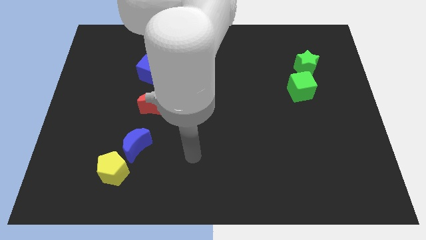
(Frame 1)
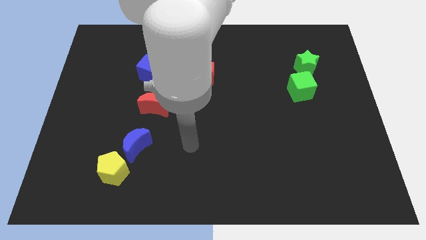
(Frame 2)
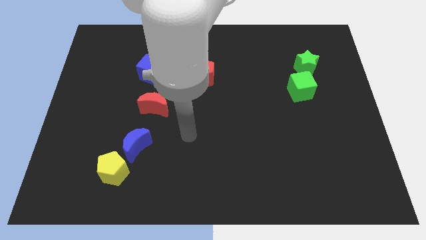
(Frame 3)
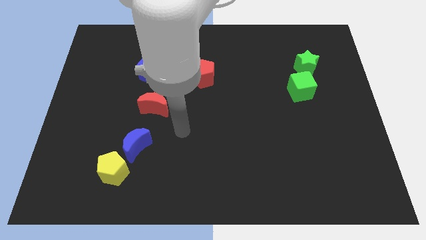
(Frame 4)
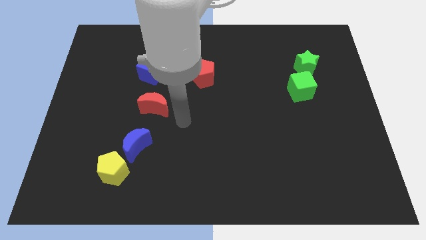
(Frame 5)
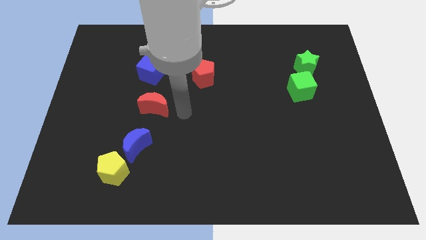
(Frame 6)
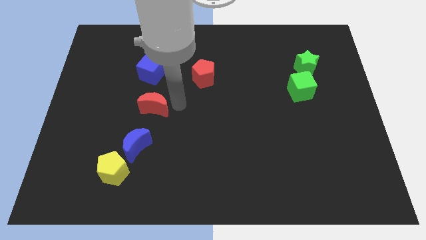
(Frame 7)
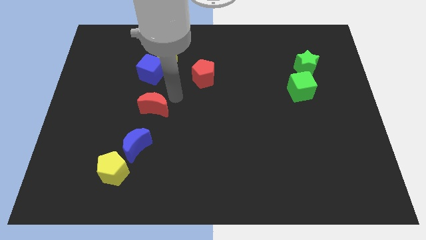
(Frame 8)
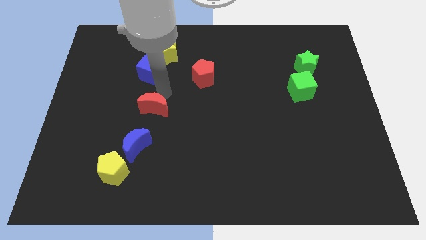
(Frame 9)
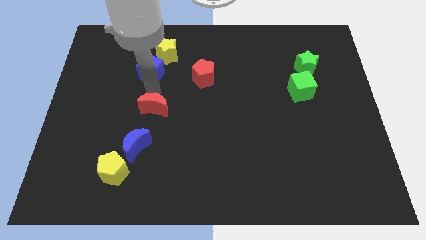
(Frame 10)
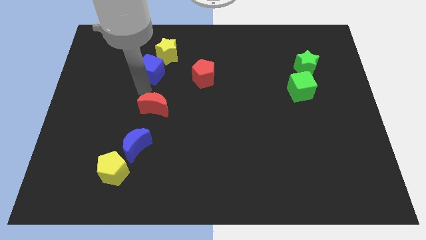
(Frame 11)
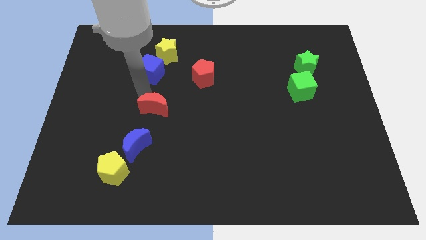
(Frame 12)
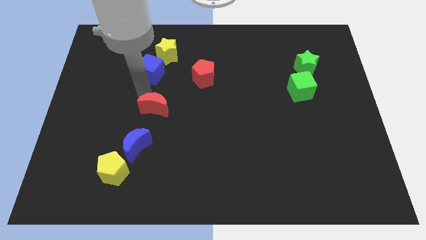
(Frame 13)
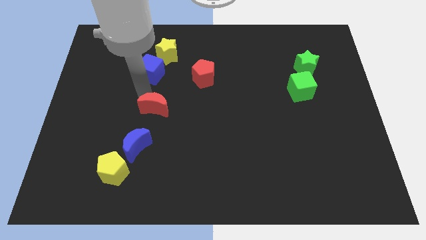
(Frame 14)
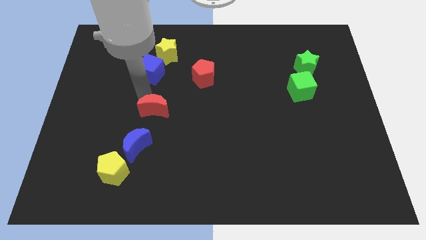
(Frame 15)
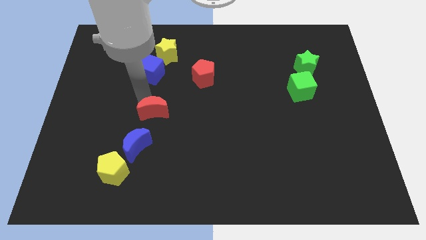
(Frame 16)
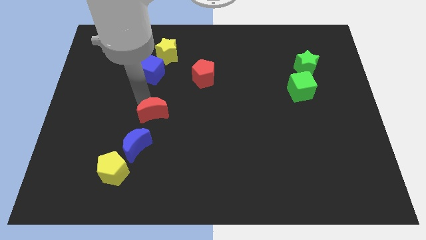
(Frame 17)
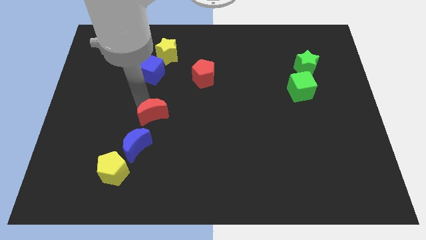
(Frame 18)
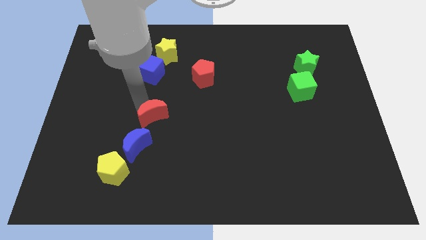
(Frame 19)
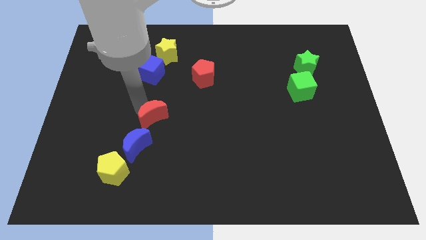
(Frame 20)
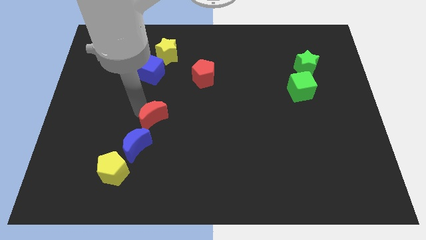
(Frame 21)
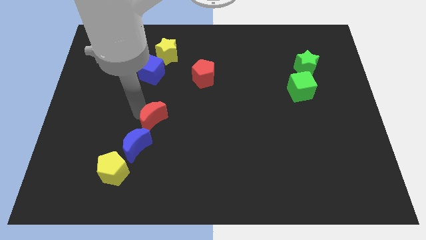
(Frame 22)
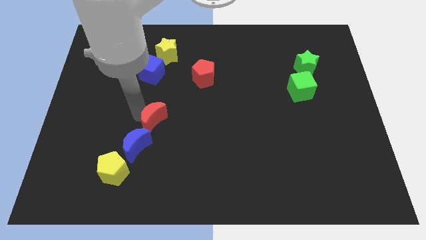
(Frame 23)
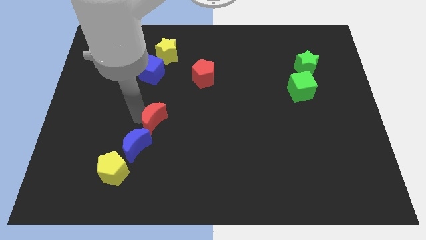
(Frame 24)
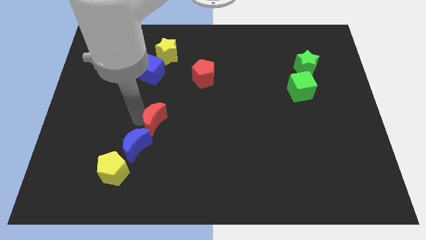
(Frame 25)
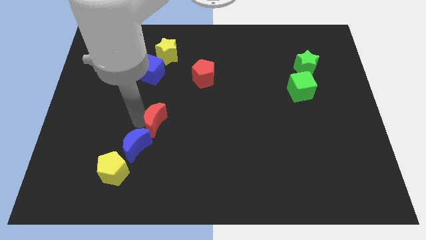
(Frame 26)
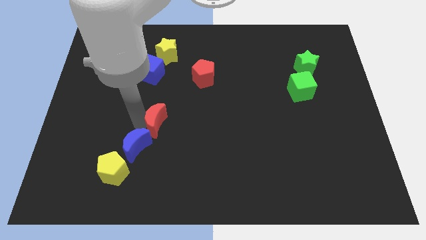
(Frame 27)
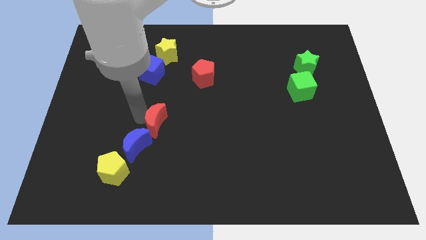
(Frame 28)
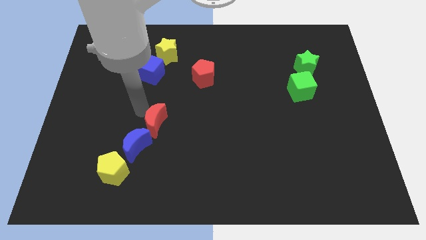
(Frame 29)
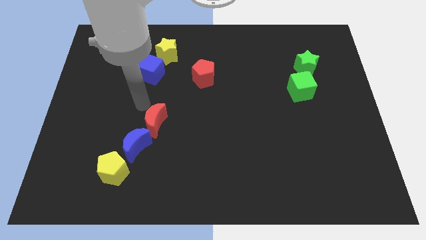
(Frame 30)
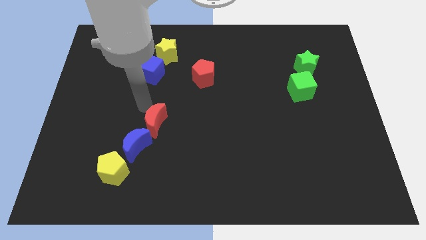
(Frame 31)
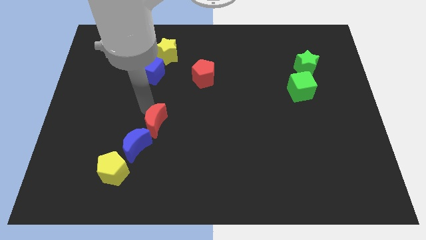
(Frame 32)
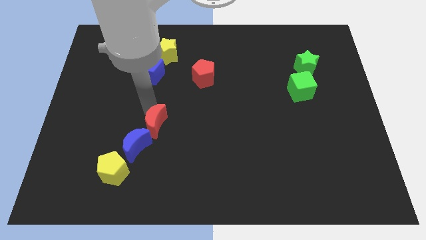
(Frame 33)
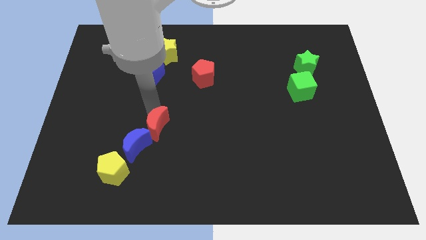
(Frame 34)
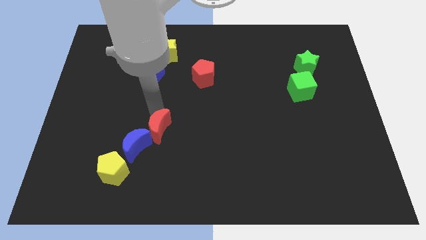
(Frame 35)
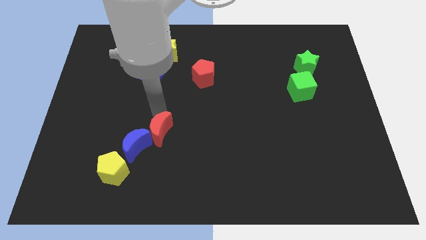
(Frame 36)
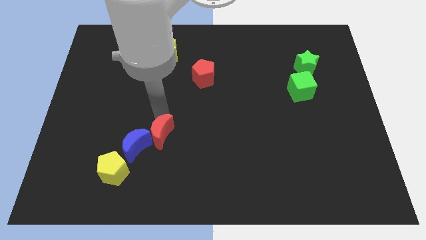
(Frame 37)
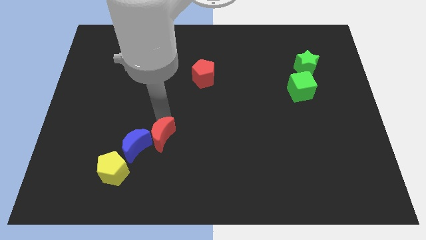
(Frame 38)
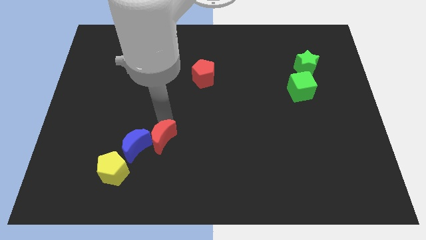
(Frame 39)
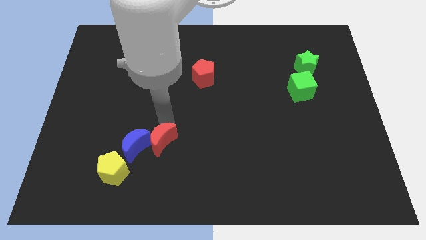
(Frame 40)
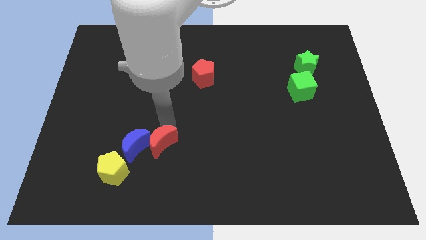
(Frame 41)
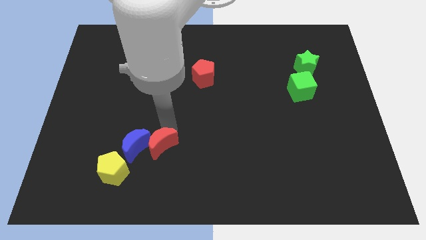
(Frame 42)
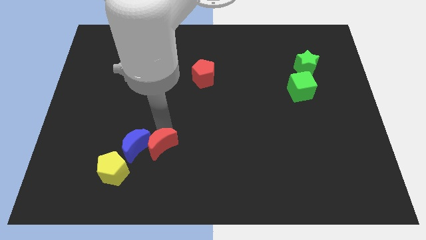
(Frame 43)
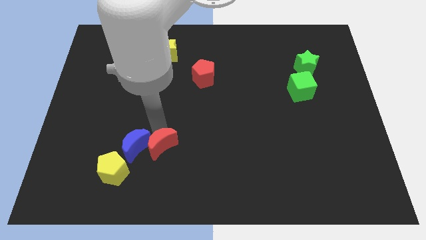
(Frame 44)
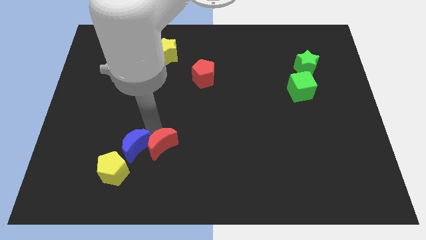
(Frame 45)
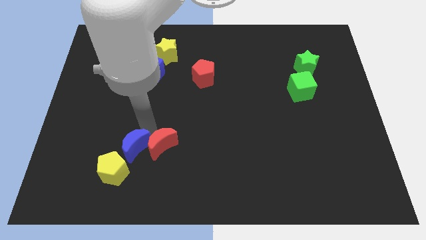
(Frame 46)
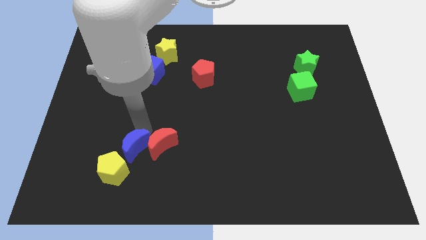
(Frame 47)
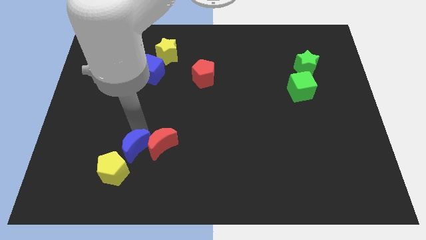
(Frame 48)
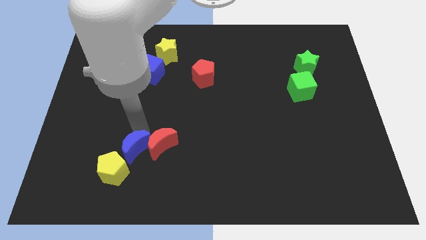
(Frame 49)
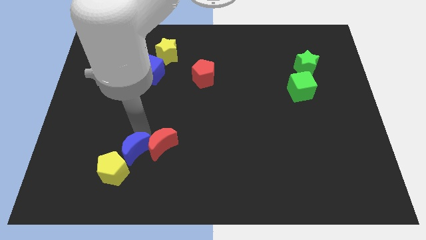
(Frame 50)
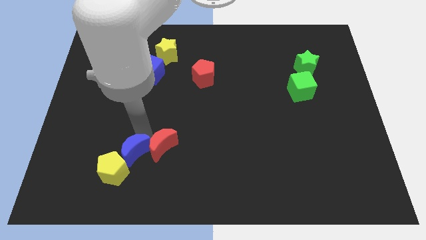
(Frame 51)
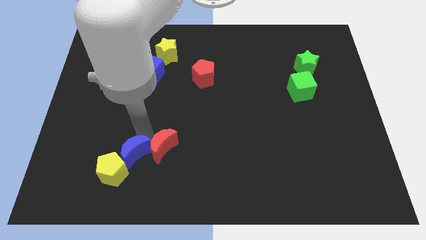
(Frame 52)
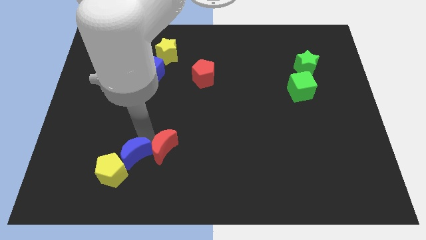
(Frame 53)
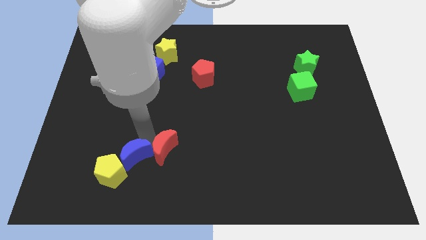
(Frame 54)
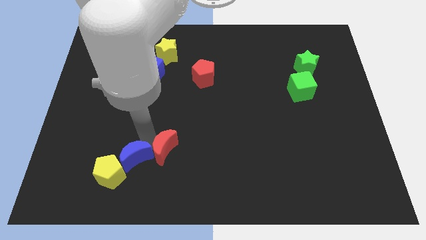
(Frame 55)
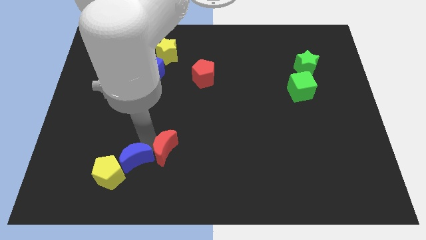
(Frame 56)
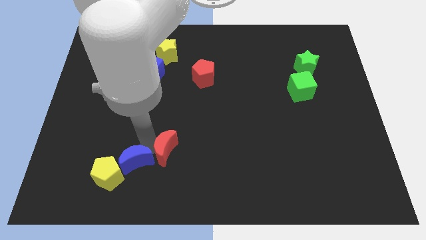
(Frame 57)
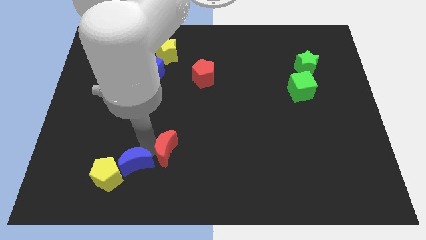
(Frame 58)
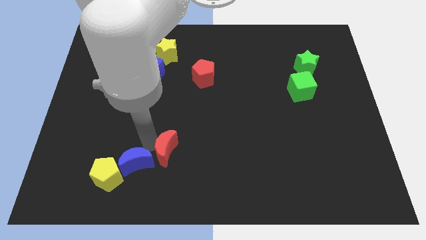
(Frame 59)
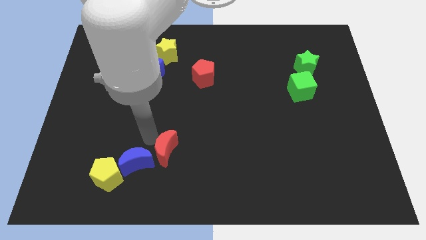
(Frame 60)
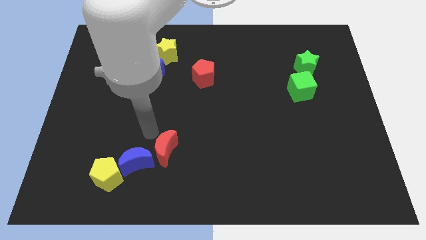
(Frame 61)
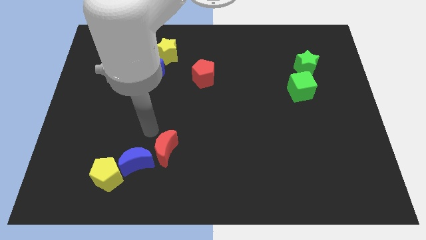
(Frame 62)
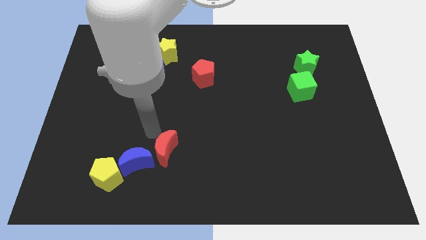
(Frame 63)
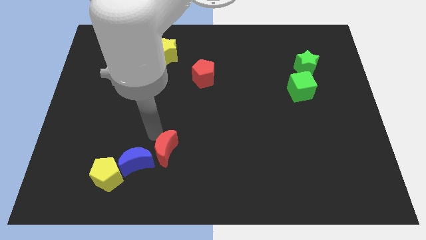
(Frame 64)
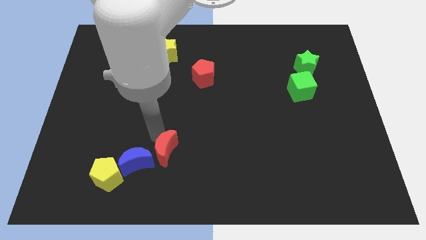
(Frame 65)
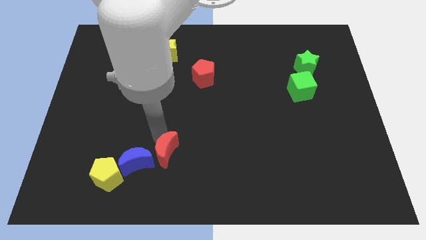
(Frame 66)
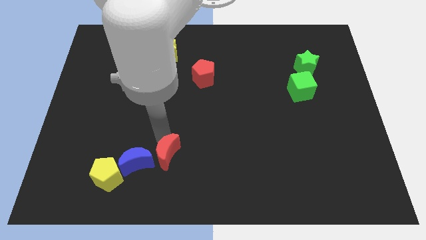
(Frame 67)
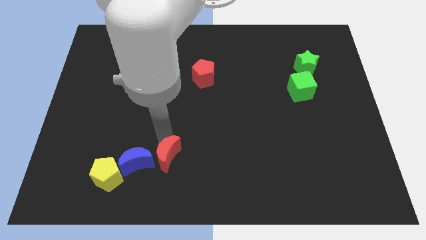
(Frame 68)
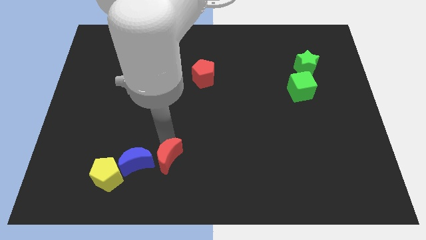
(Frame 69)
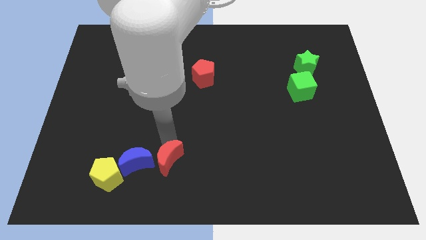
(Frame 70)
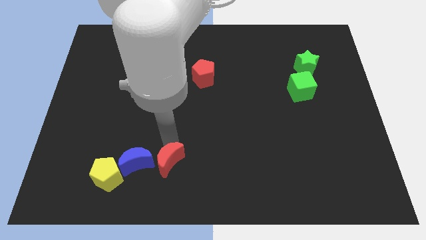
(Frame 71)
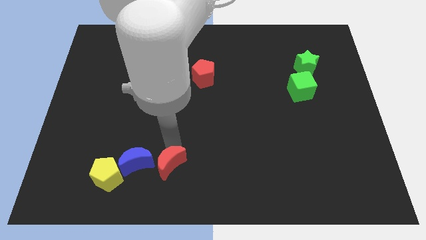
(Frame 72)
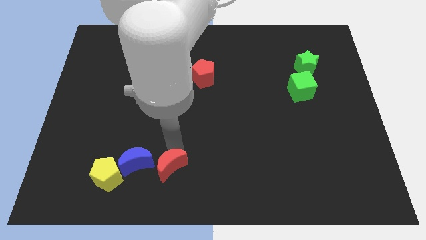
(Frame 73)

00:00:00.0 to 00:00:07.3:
push the red moon to the bottom

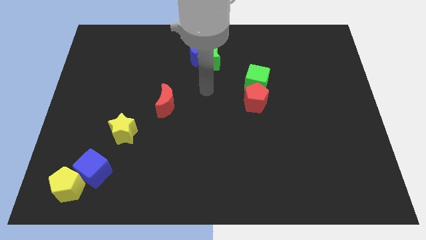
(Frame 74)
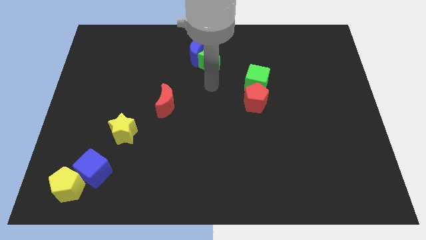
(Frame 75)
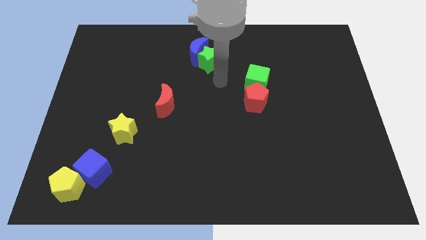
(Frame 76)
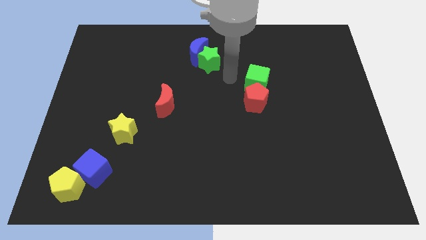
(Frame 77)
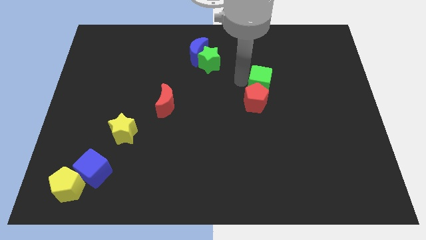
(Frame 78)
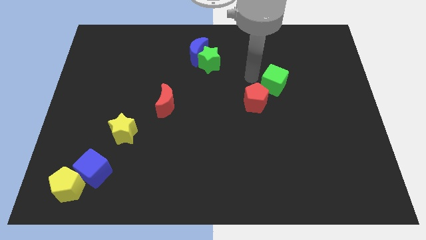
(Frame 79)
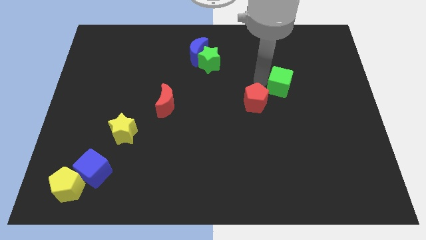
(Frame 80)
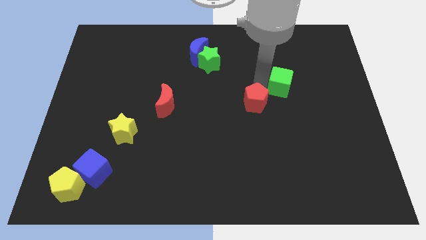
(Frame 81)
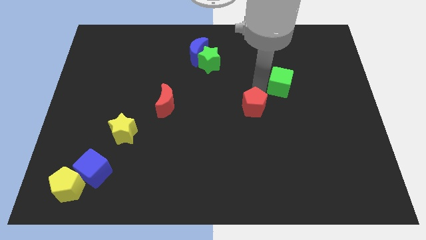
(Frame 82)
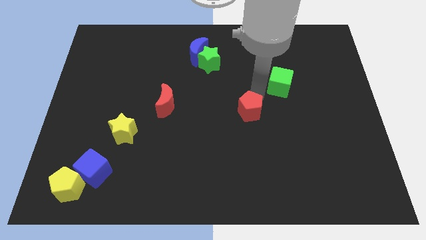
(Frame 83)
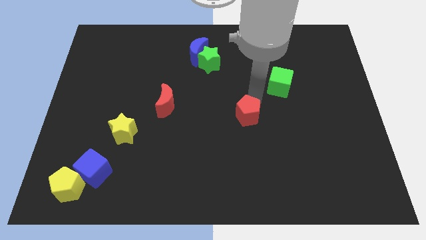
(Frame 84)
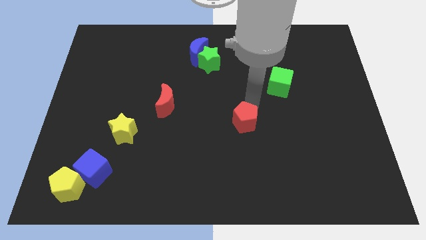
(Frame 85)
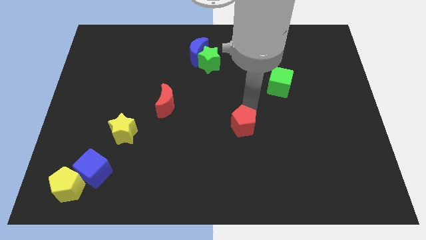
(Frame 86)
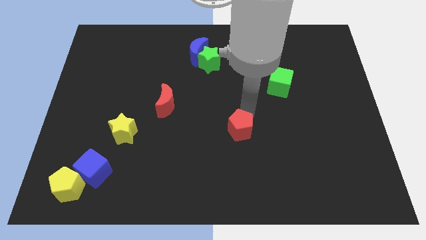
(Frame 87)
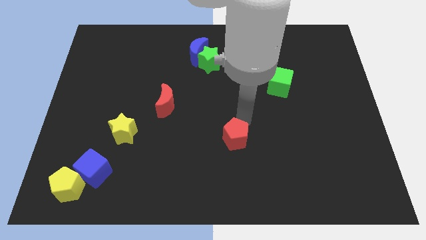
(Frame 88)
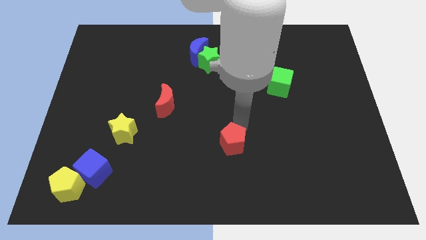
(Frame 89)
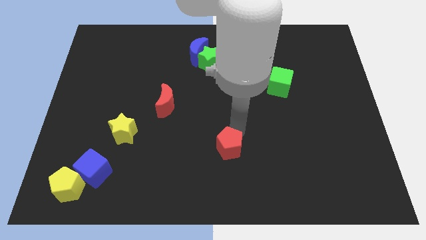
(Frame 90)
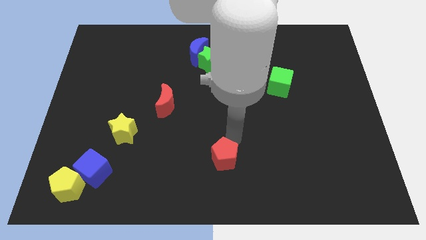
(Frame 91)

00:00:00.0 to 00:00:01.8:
push the red pentagon to the bottom
